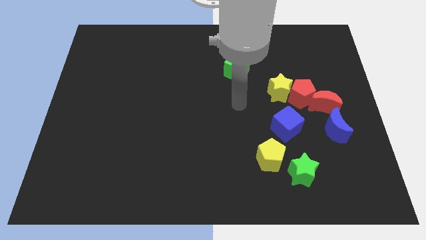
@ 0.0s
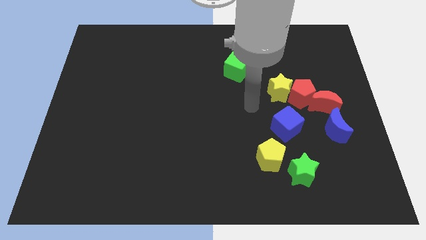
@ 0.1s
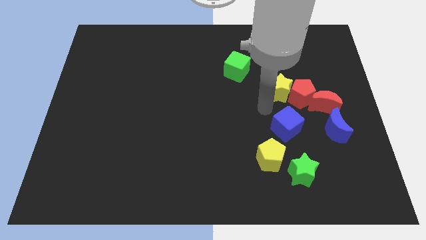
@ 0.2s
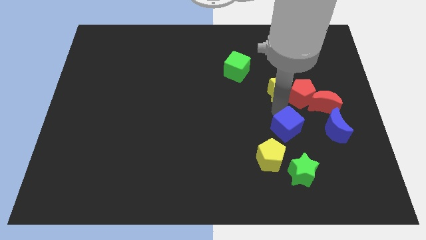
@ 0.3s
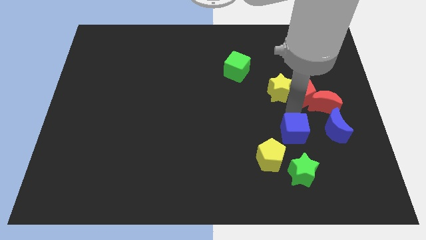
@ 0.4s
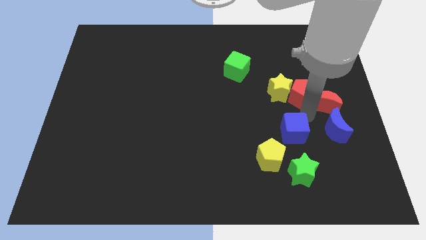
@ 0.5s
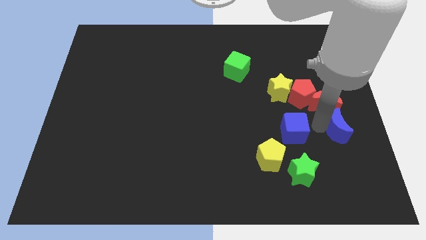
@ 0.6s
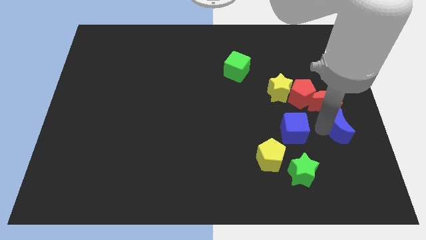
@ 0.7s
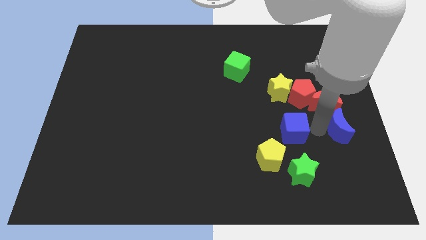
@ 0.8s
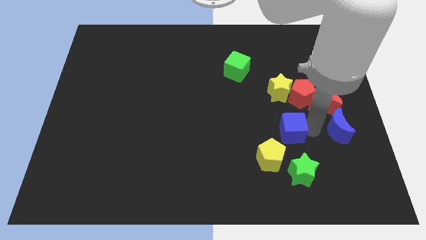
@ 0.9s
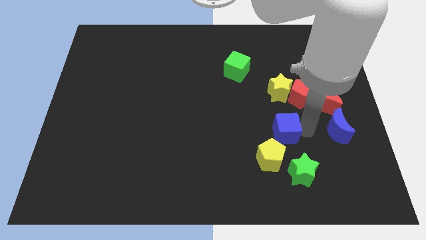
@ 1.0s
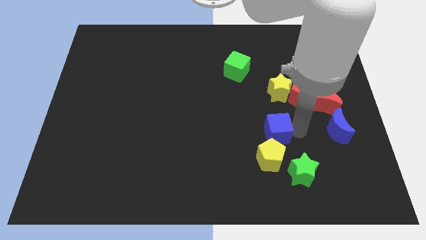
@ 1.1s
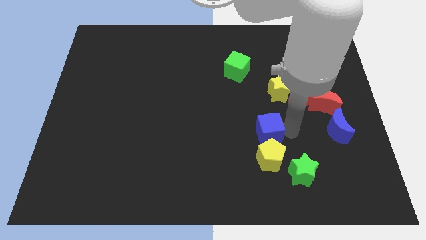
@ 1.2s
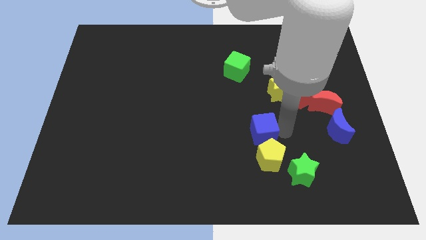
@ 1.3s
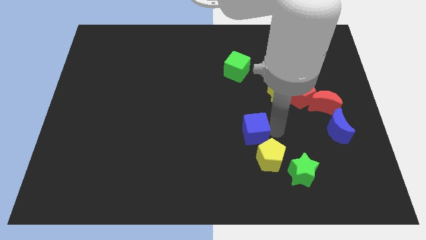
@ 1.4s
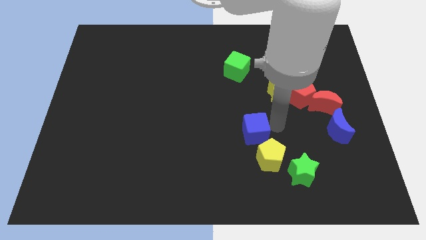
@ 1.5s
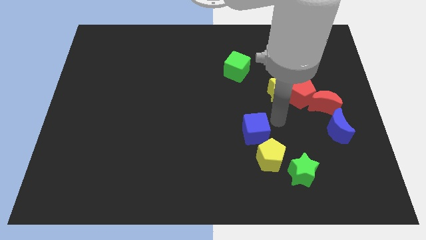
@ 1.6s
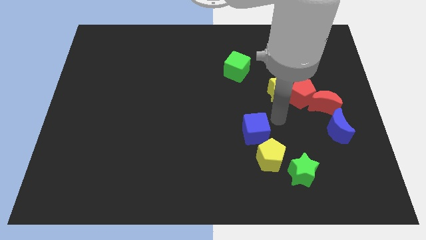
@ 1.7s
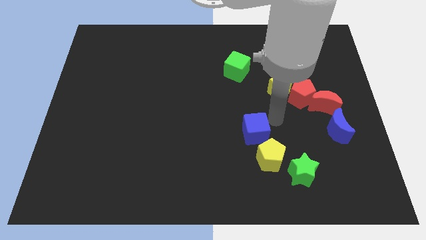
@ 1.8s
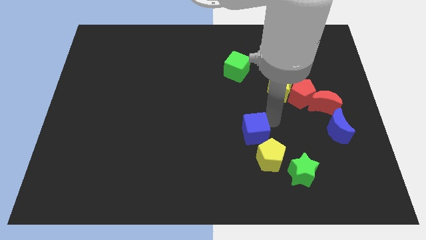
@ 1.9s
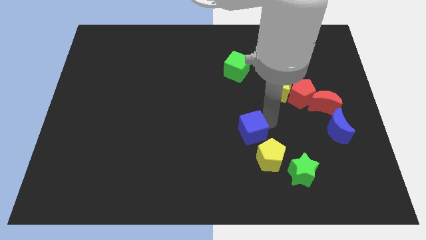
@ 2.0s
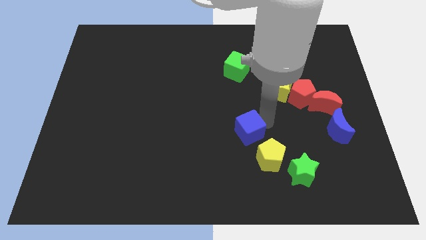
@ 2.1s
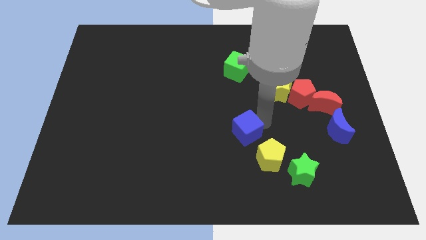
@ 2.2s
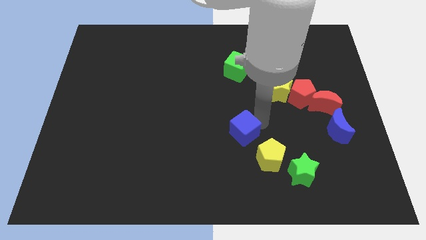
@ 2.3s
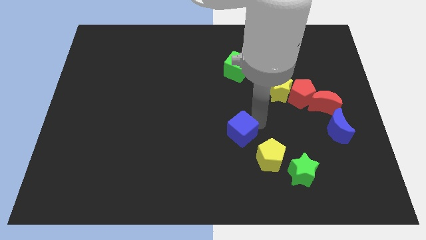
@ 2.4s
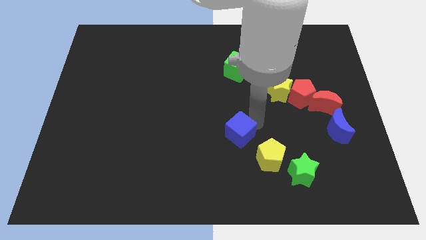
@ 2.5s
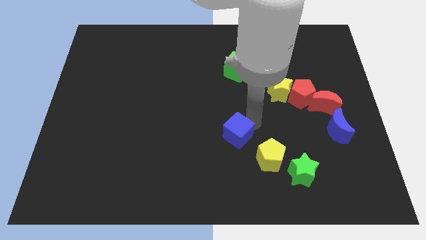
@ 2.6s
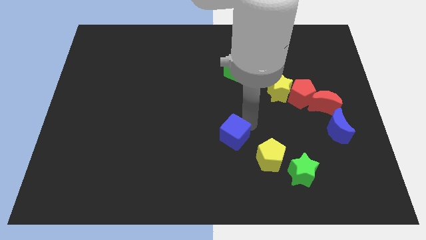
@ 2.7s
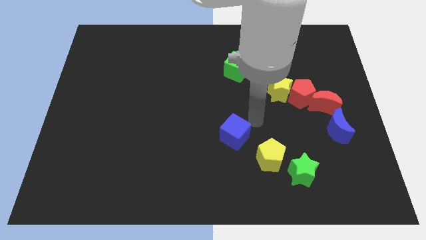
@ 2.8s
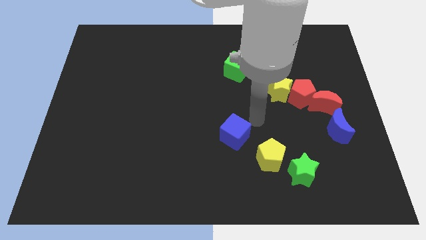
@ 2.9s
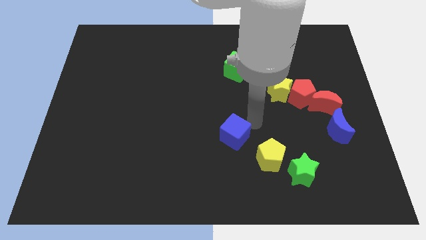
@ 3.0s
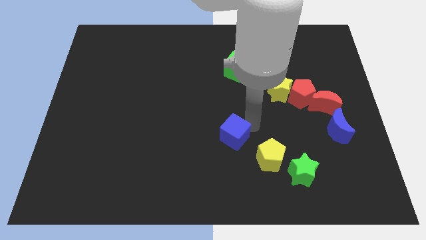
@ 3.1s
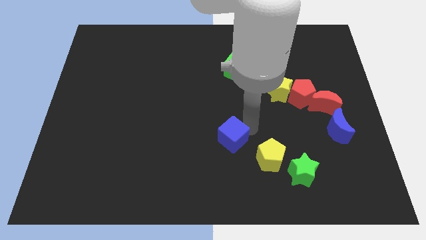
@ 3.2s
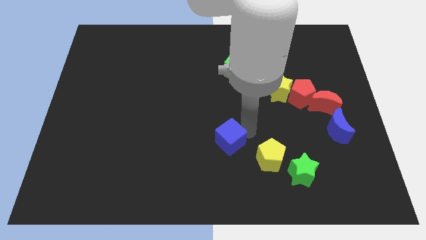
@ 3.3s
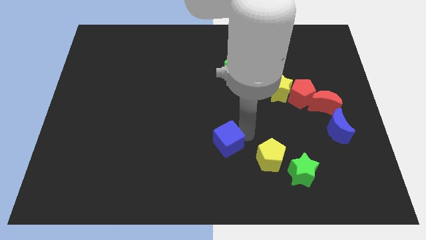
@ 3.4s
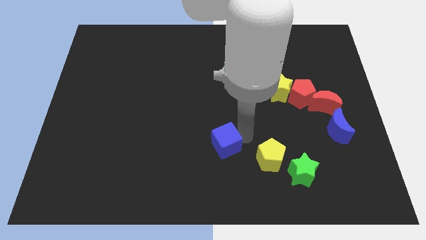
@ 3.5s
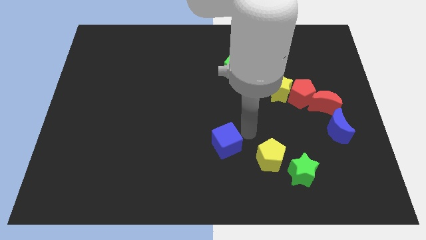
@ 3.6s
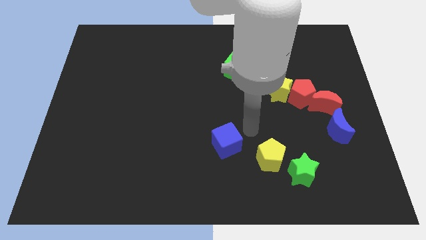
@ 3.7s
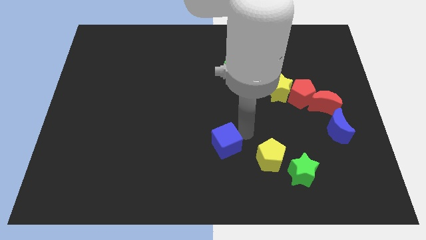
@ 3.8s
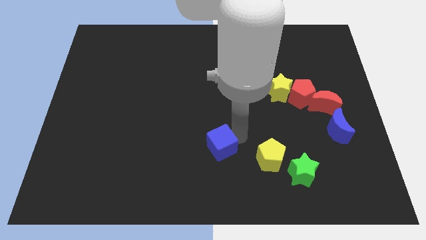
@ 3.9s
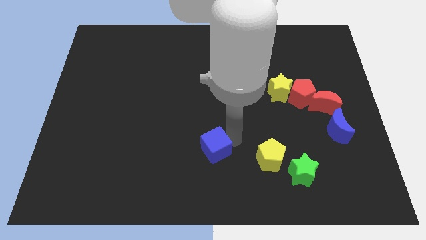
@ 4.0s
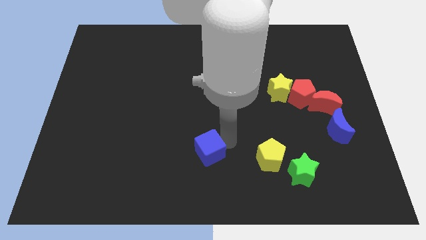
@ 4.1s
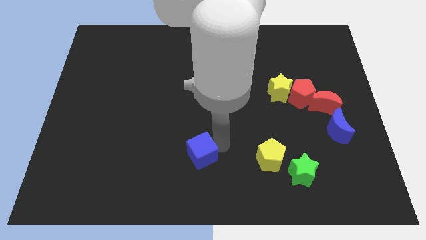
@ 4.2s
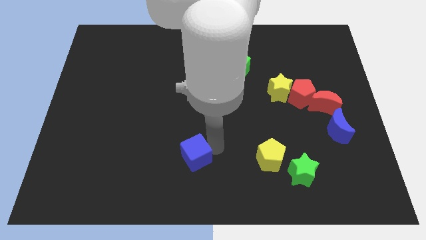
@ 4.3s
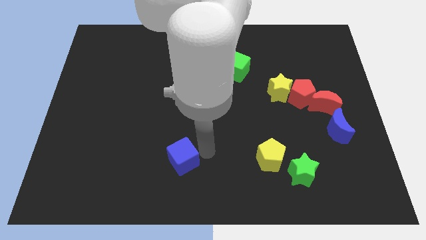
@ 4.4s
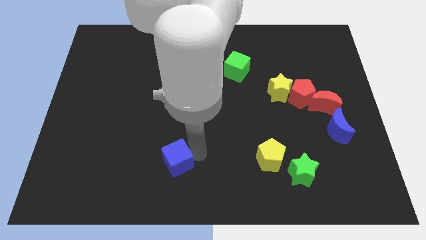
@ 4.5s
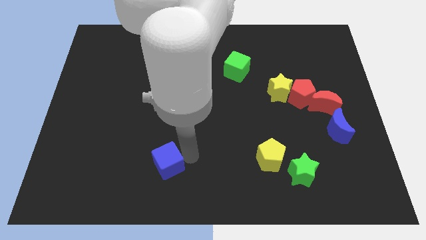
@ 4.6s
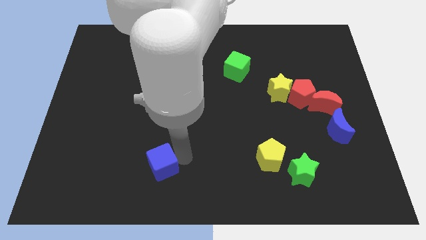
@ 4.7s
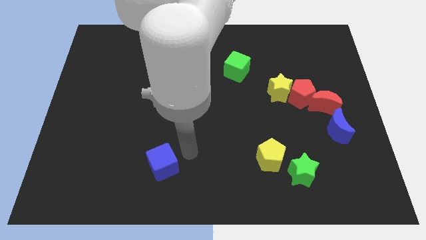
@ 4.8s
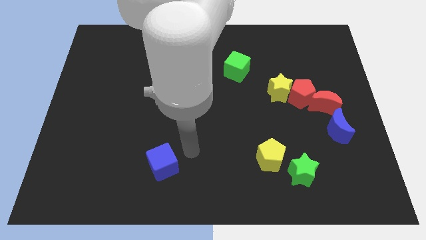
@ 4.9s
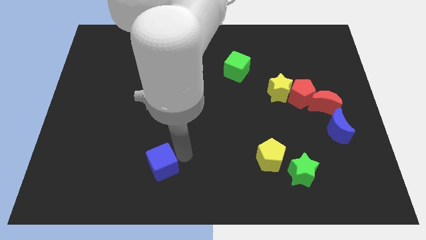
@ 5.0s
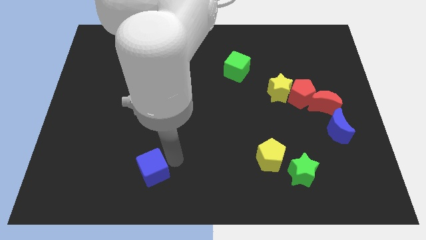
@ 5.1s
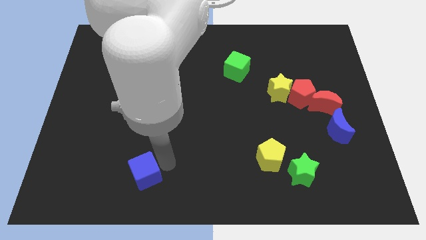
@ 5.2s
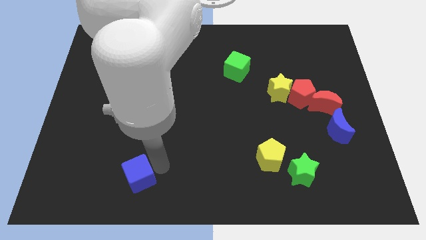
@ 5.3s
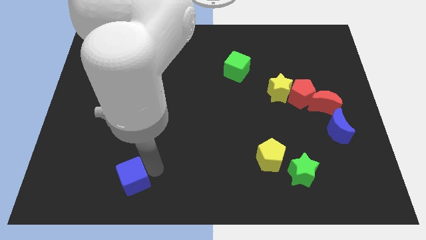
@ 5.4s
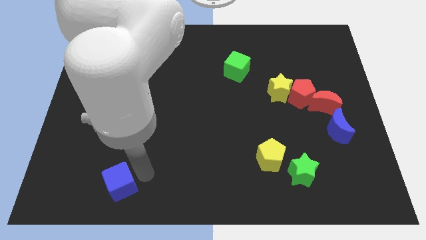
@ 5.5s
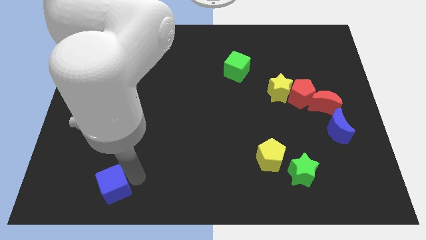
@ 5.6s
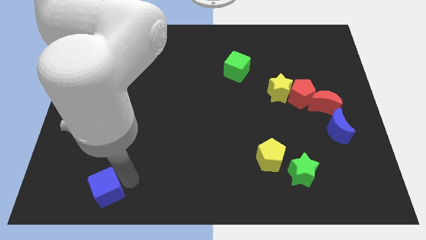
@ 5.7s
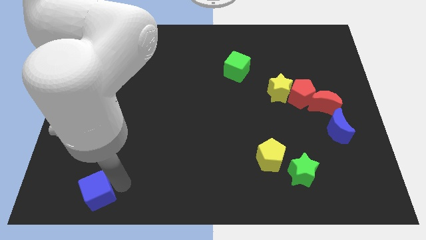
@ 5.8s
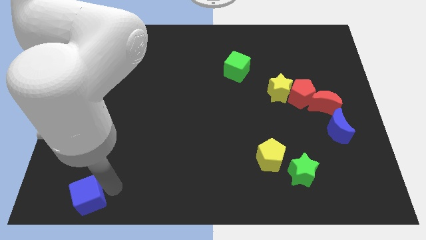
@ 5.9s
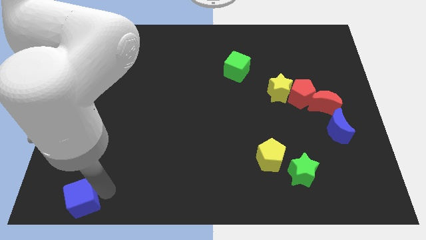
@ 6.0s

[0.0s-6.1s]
push the blue cube to the bottom left corner

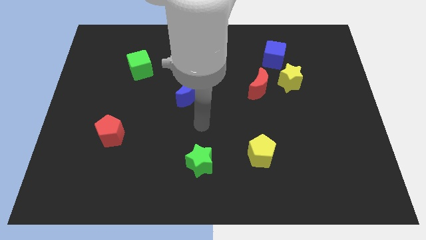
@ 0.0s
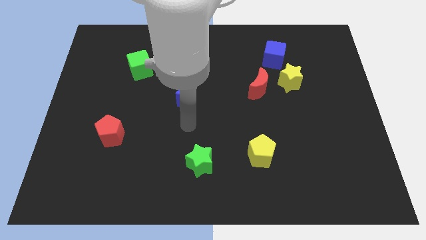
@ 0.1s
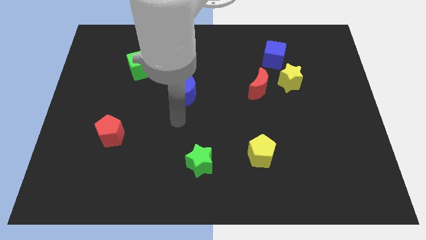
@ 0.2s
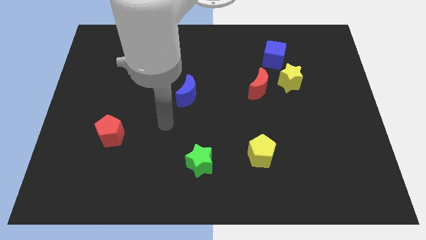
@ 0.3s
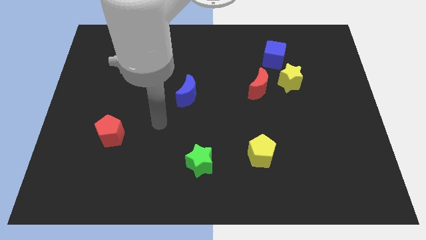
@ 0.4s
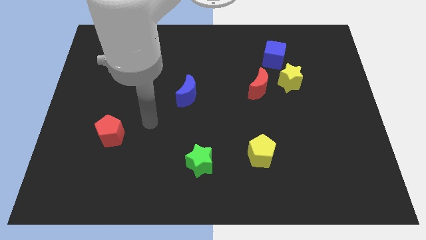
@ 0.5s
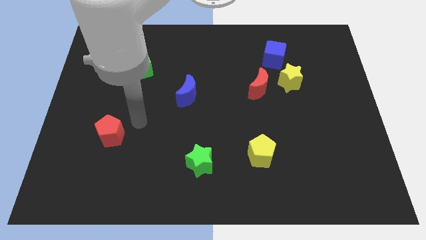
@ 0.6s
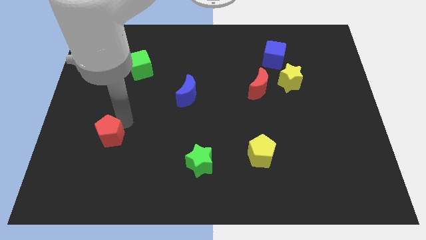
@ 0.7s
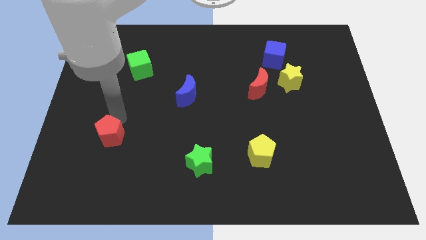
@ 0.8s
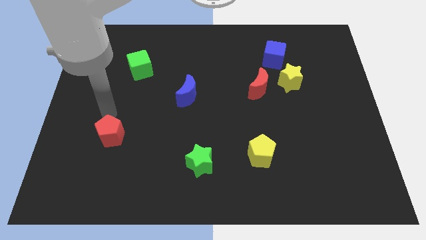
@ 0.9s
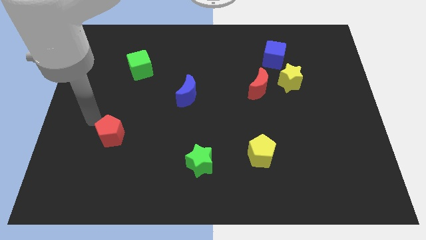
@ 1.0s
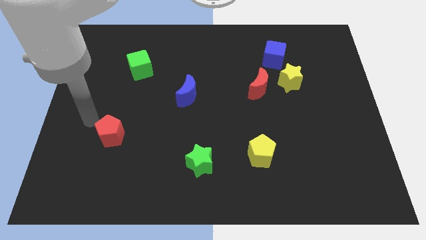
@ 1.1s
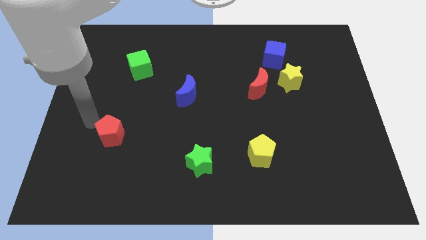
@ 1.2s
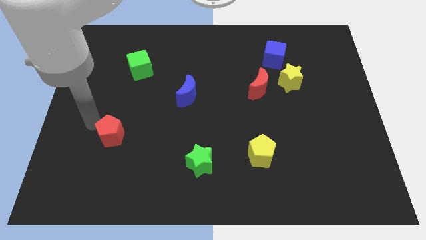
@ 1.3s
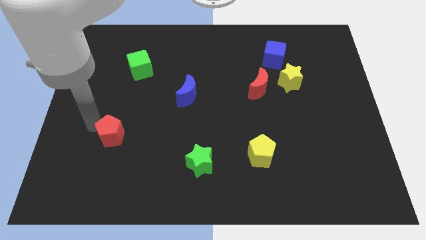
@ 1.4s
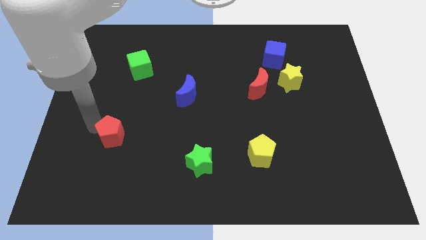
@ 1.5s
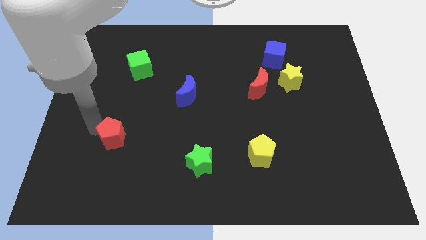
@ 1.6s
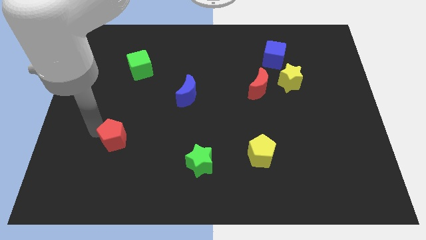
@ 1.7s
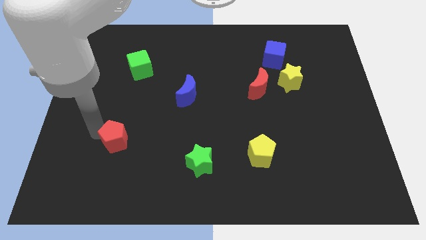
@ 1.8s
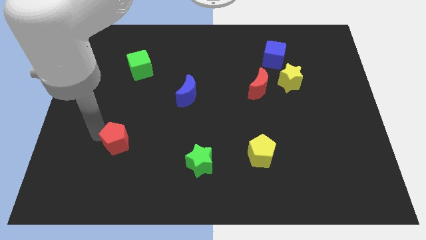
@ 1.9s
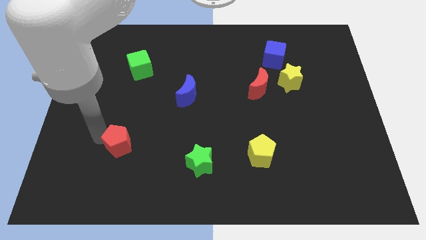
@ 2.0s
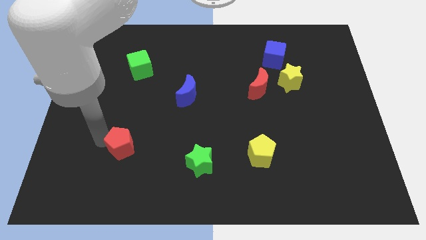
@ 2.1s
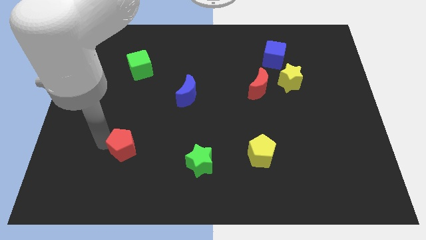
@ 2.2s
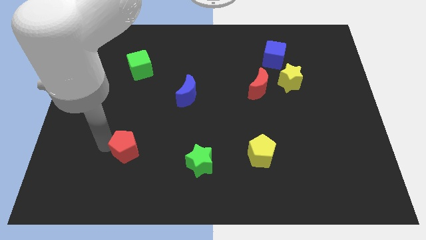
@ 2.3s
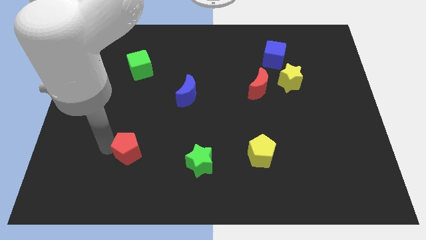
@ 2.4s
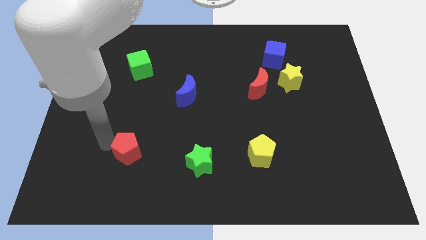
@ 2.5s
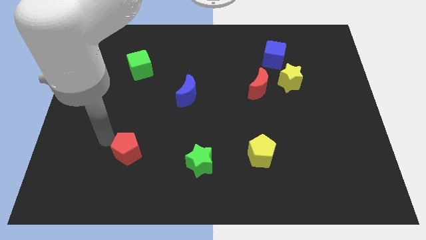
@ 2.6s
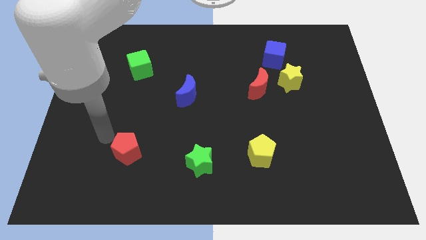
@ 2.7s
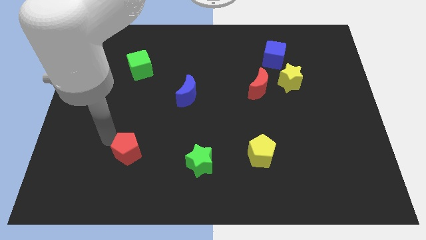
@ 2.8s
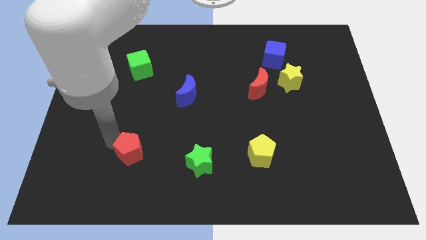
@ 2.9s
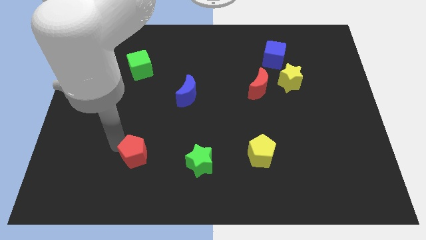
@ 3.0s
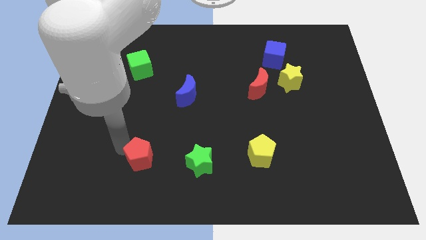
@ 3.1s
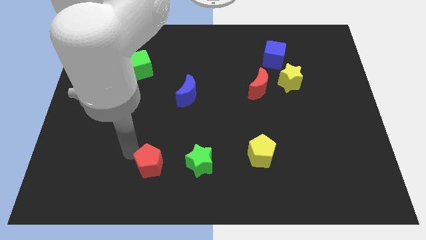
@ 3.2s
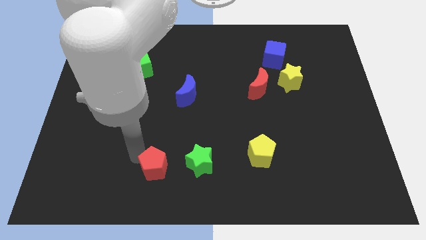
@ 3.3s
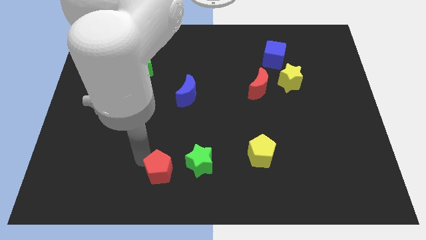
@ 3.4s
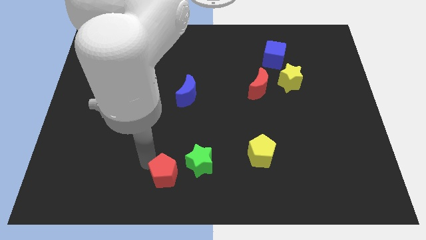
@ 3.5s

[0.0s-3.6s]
put the red pentagon to the bottom side
